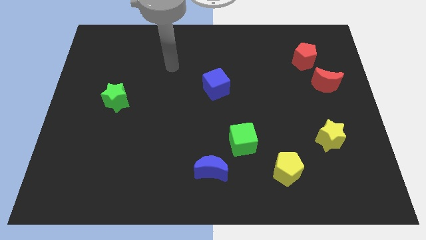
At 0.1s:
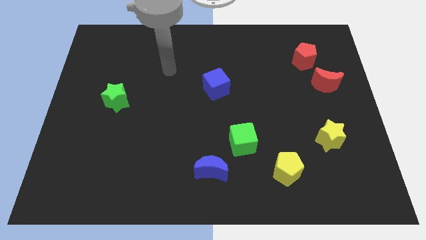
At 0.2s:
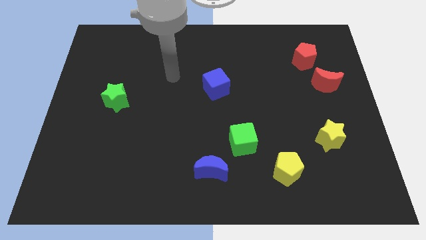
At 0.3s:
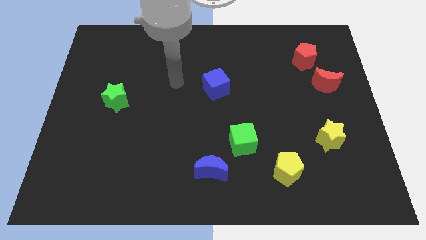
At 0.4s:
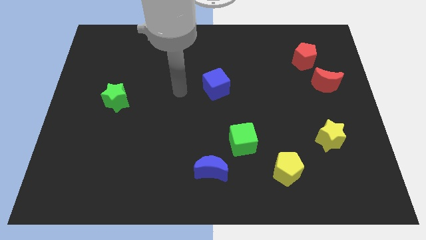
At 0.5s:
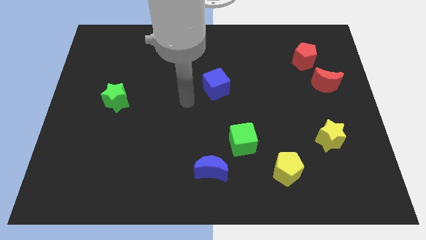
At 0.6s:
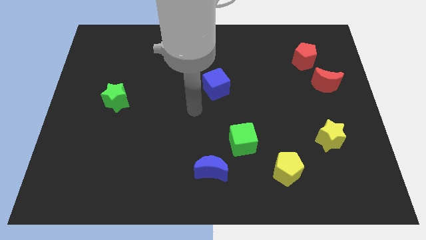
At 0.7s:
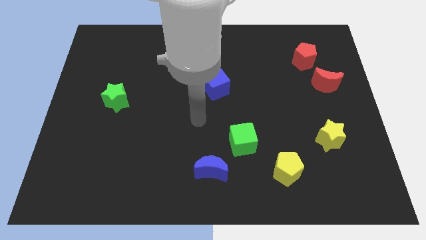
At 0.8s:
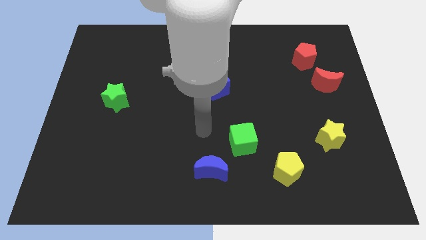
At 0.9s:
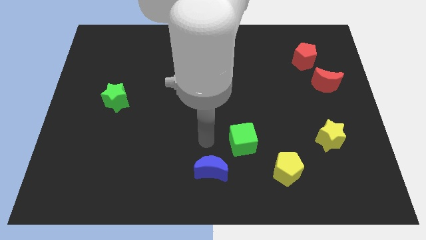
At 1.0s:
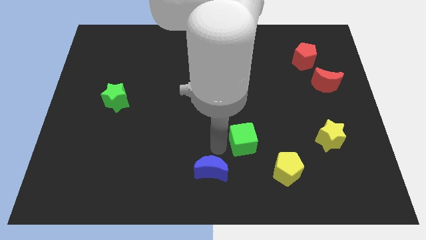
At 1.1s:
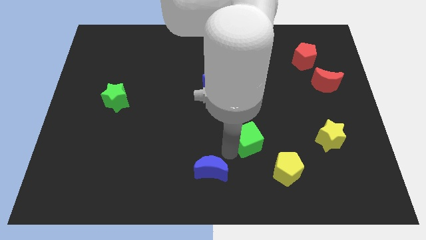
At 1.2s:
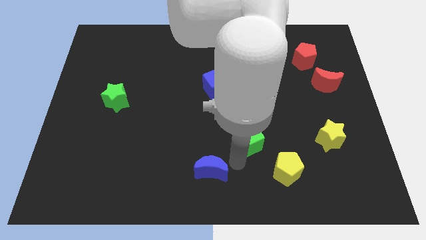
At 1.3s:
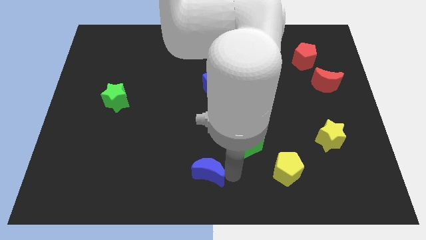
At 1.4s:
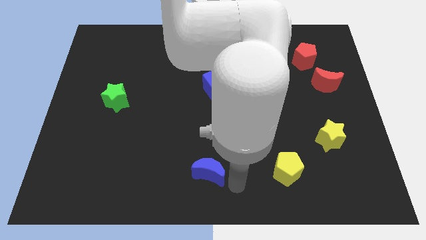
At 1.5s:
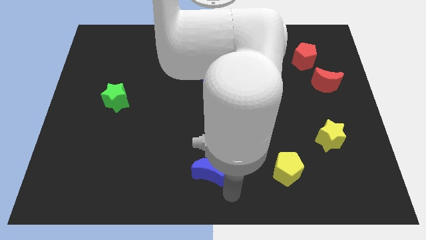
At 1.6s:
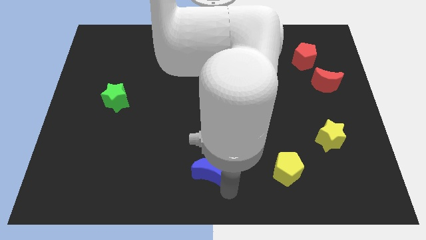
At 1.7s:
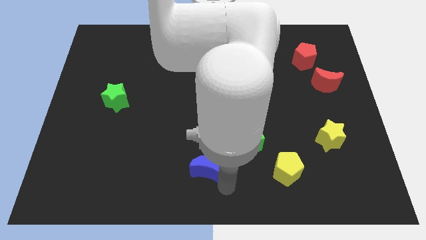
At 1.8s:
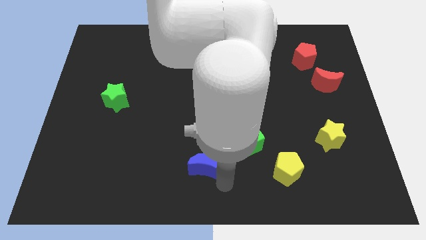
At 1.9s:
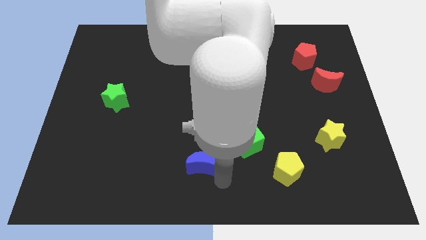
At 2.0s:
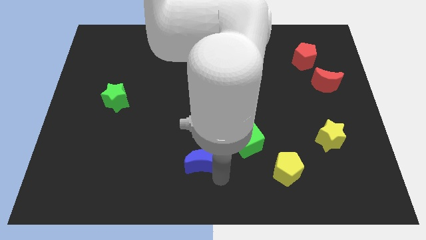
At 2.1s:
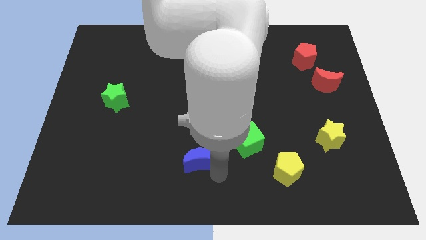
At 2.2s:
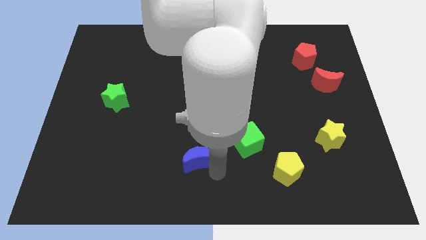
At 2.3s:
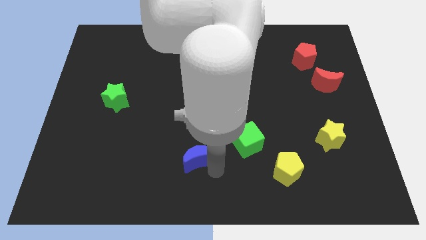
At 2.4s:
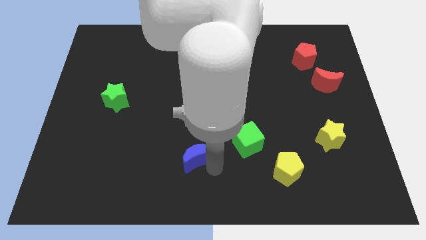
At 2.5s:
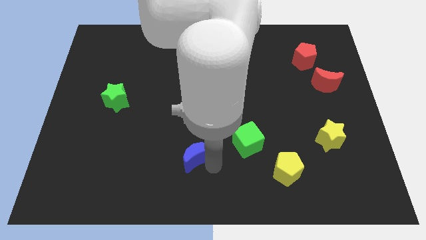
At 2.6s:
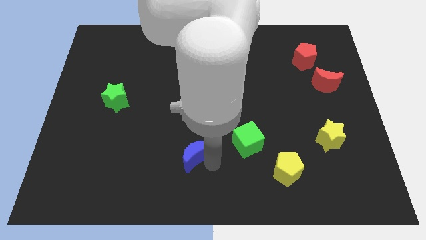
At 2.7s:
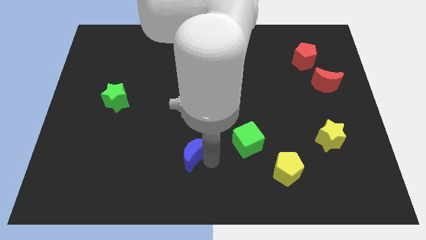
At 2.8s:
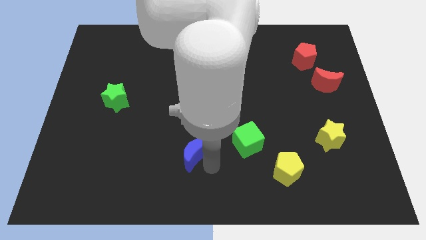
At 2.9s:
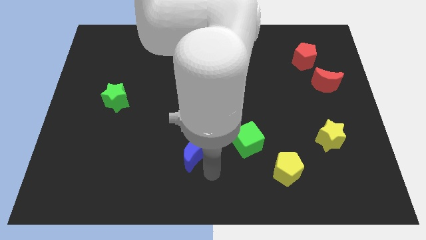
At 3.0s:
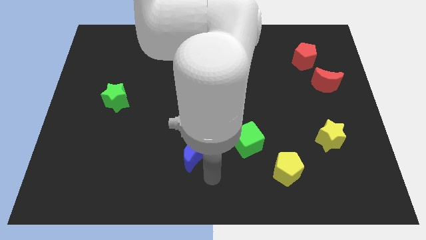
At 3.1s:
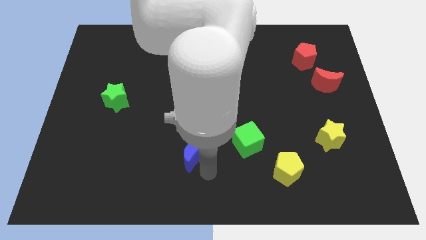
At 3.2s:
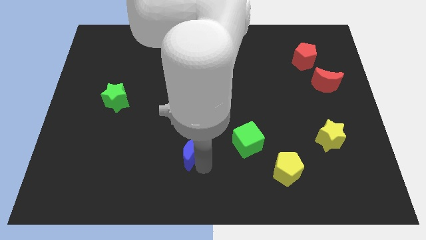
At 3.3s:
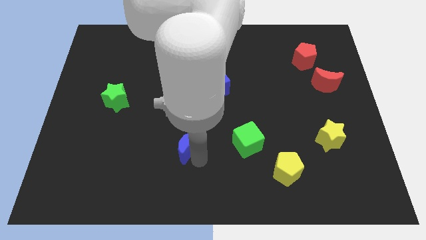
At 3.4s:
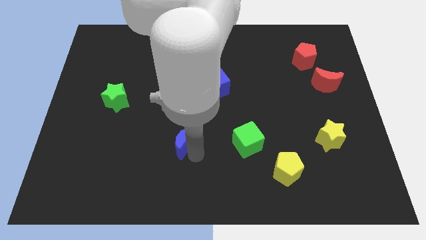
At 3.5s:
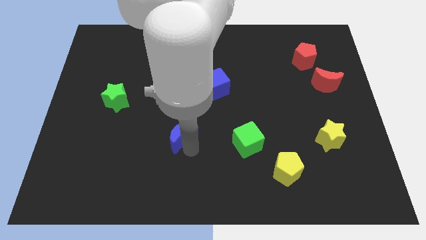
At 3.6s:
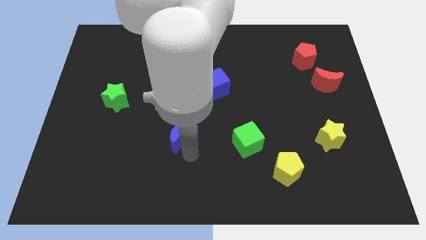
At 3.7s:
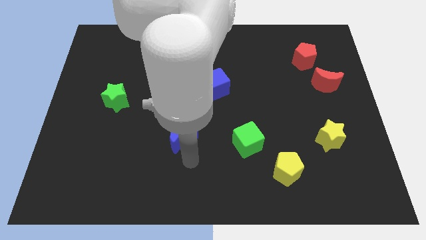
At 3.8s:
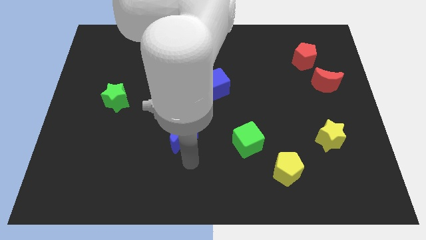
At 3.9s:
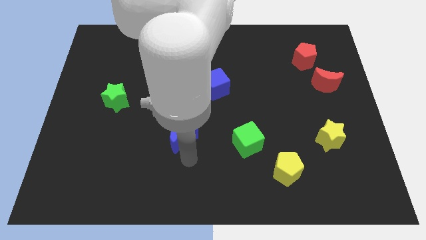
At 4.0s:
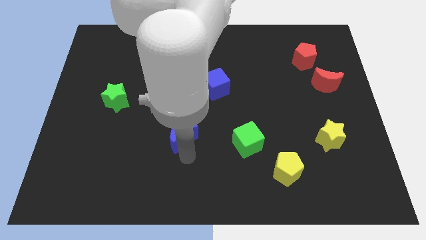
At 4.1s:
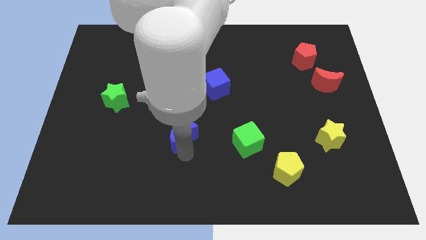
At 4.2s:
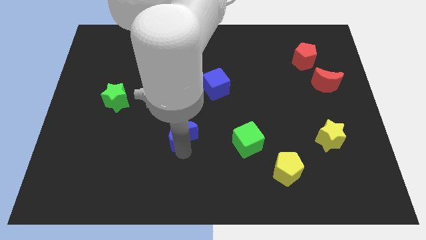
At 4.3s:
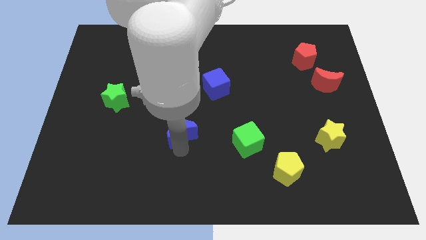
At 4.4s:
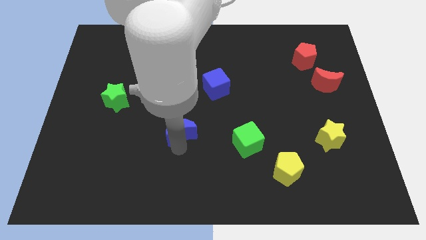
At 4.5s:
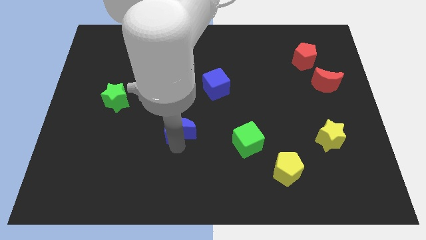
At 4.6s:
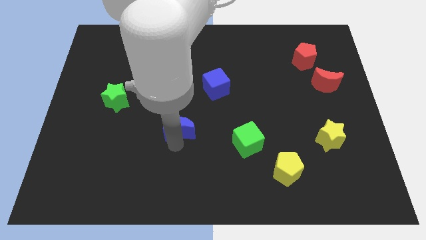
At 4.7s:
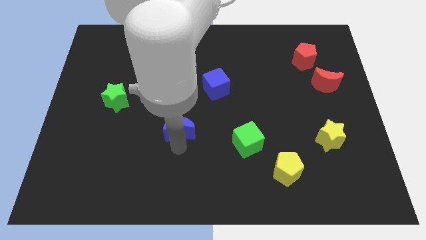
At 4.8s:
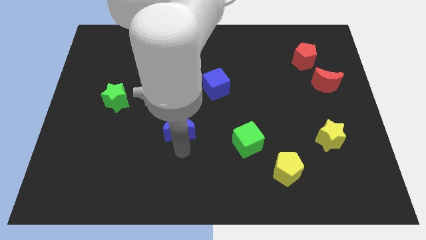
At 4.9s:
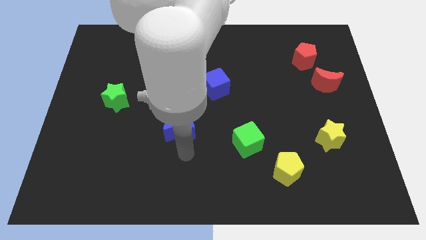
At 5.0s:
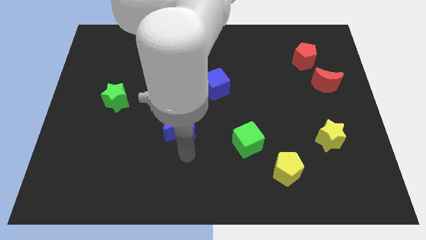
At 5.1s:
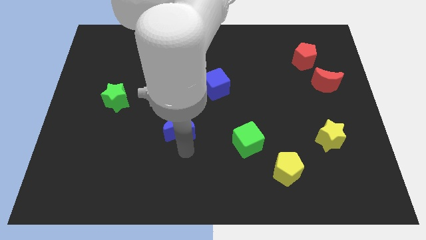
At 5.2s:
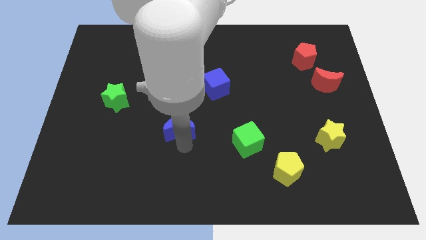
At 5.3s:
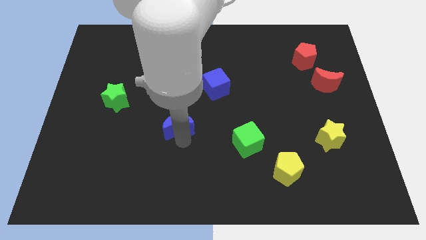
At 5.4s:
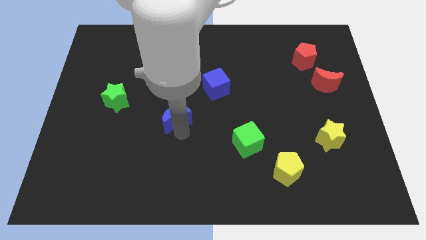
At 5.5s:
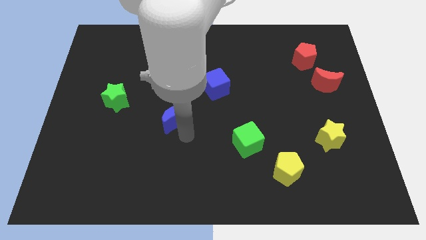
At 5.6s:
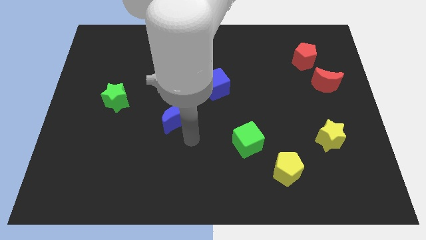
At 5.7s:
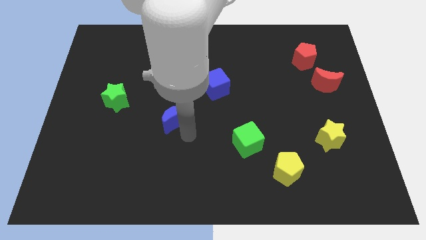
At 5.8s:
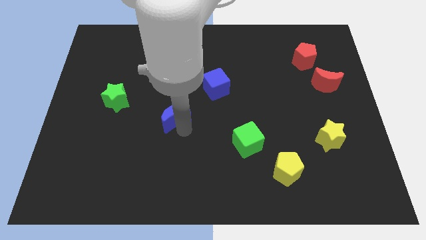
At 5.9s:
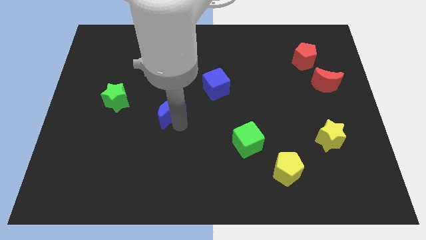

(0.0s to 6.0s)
put the blue moon to the right side of the green star
